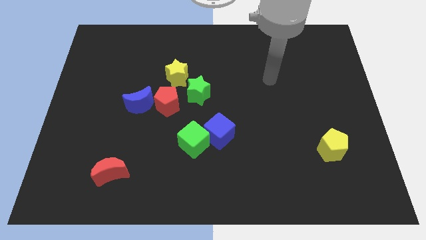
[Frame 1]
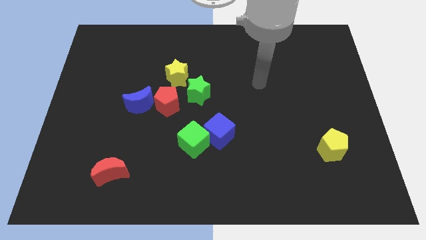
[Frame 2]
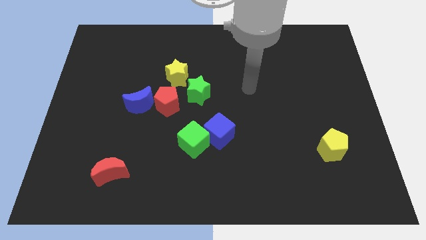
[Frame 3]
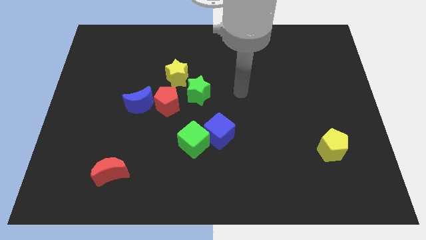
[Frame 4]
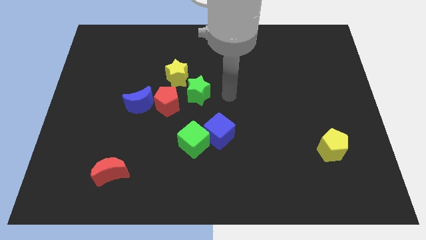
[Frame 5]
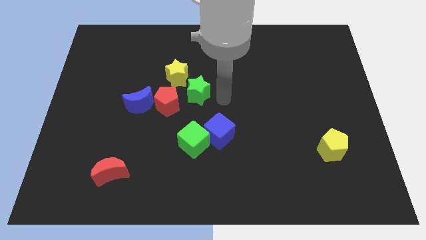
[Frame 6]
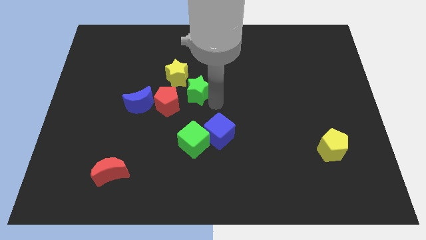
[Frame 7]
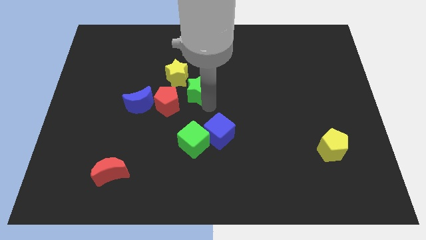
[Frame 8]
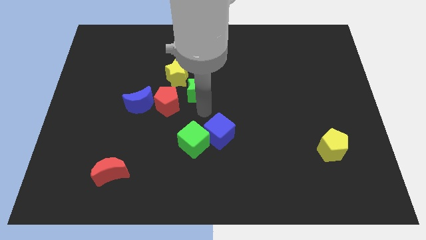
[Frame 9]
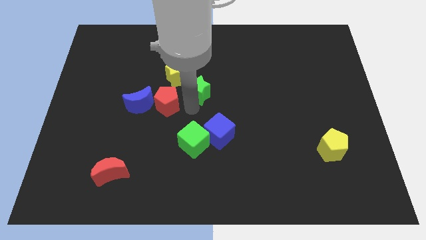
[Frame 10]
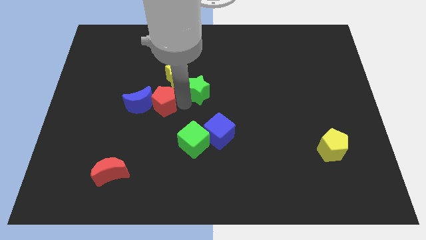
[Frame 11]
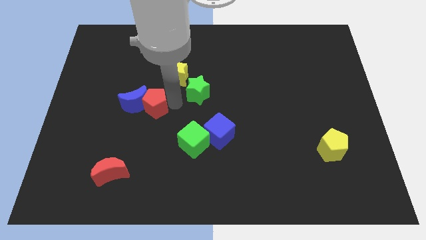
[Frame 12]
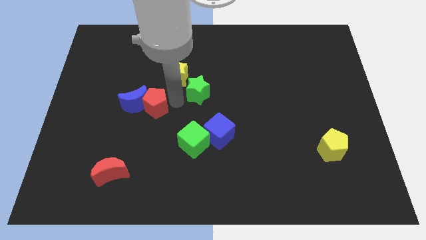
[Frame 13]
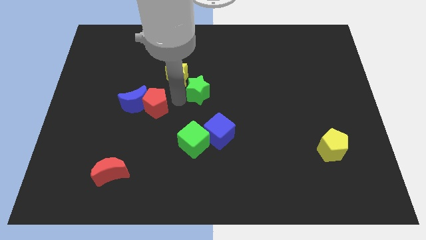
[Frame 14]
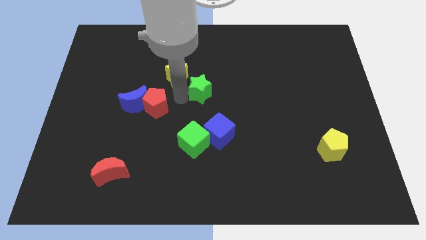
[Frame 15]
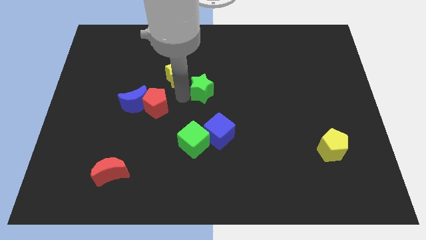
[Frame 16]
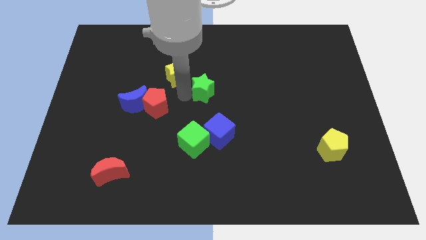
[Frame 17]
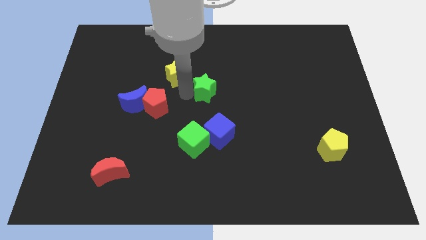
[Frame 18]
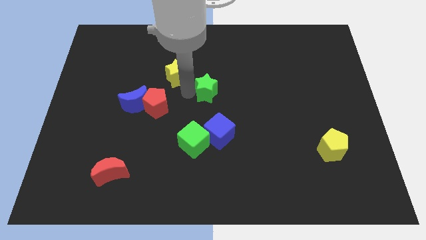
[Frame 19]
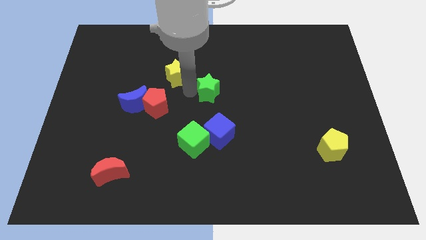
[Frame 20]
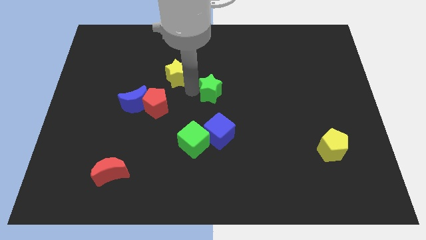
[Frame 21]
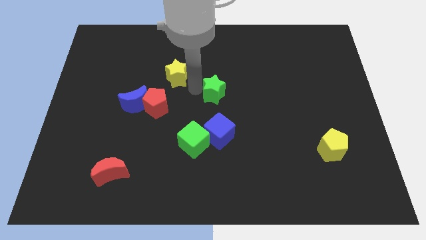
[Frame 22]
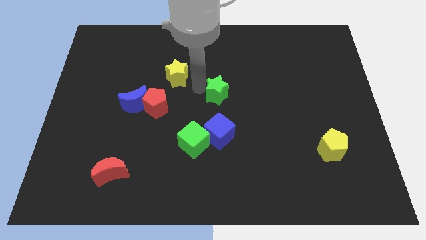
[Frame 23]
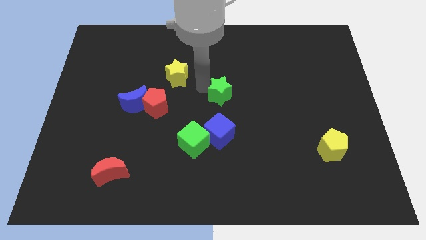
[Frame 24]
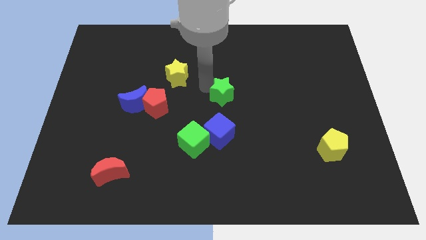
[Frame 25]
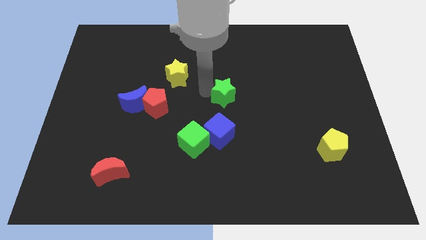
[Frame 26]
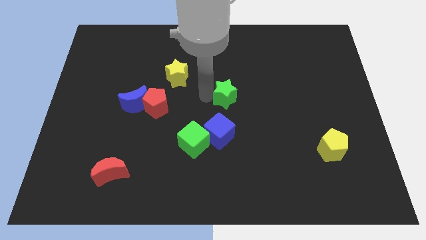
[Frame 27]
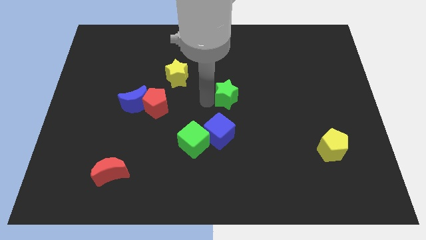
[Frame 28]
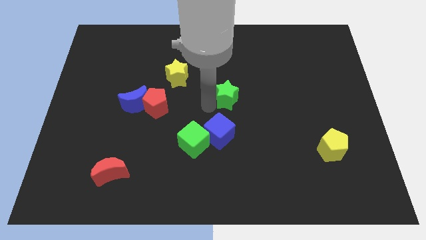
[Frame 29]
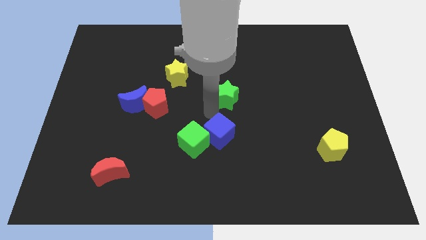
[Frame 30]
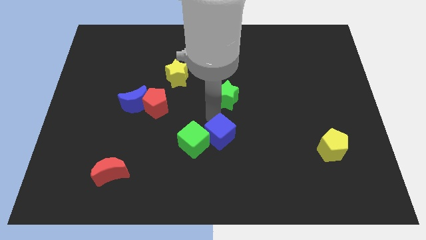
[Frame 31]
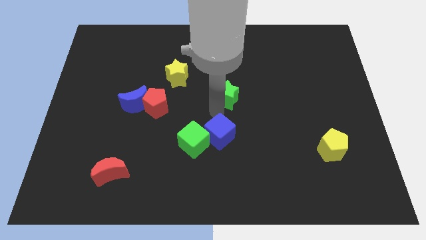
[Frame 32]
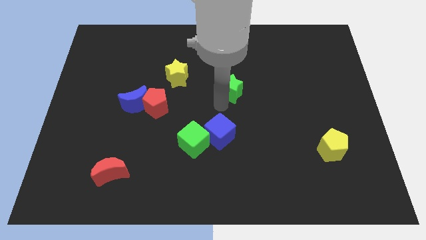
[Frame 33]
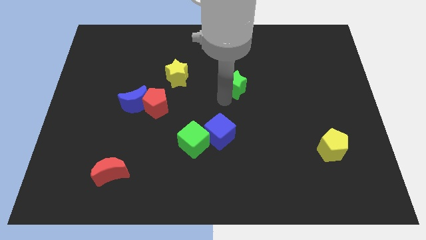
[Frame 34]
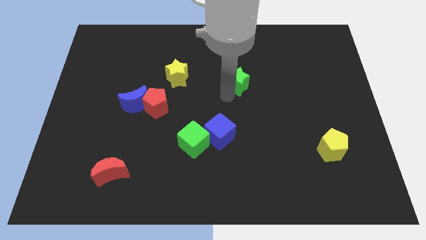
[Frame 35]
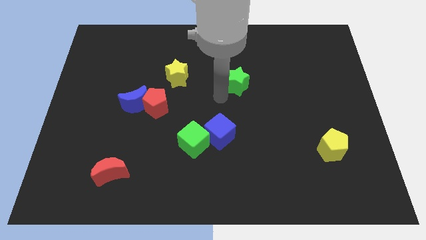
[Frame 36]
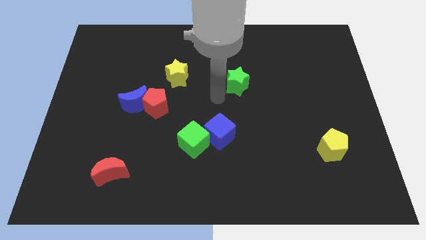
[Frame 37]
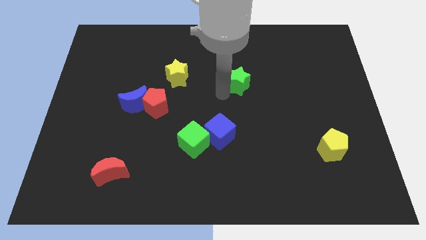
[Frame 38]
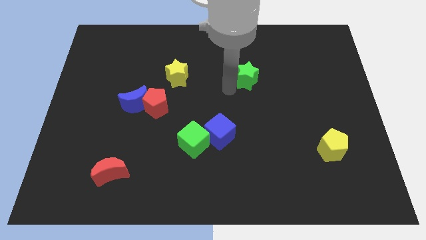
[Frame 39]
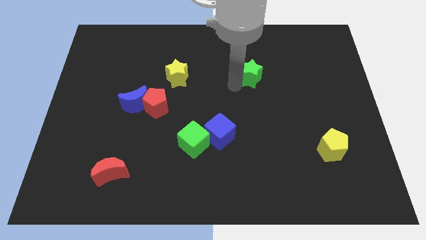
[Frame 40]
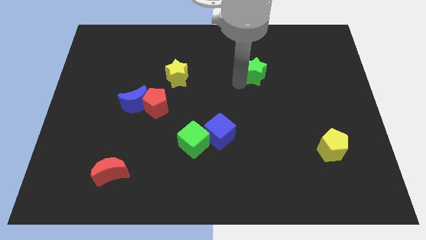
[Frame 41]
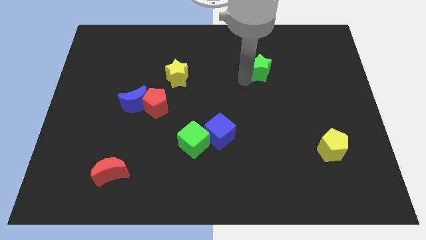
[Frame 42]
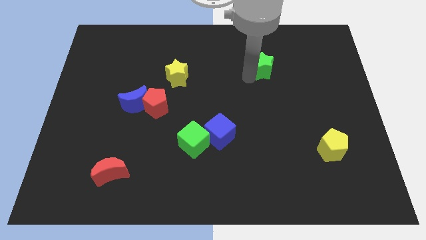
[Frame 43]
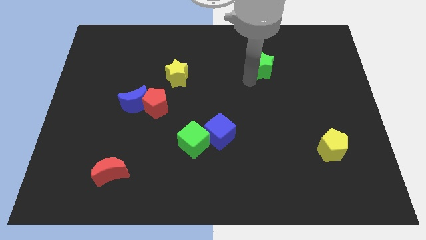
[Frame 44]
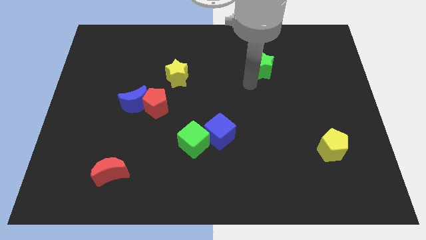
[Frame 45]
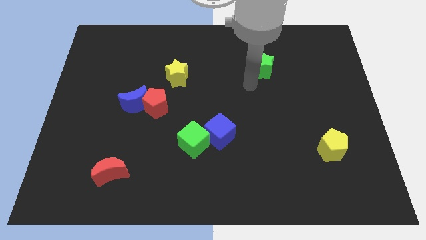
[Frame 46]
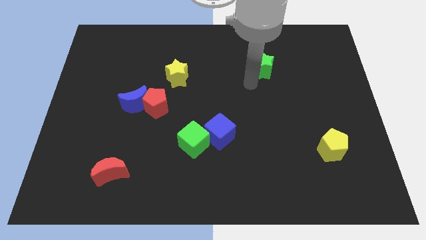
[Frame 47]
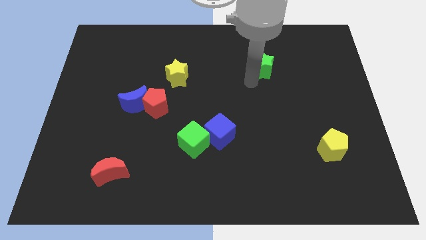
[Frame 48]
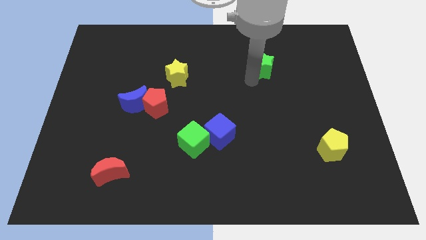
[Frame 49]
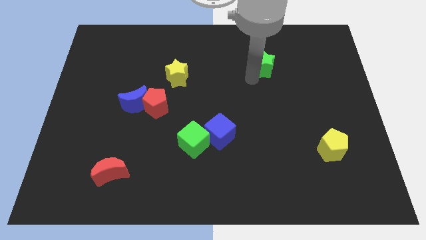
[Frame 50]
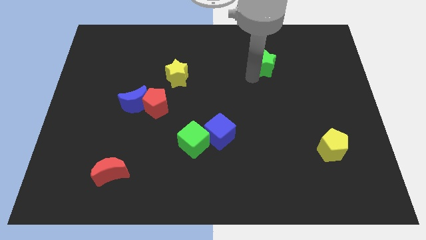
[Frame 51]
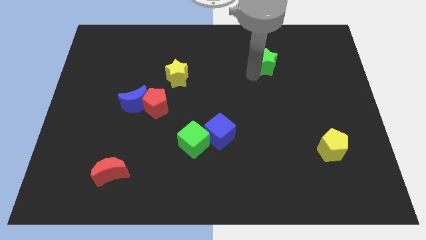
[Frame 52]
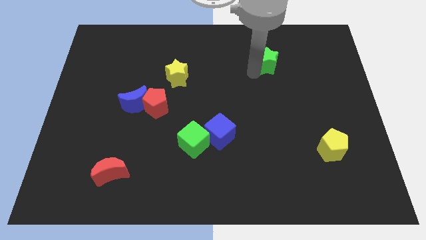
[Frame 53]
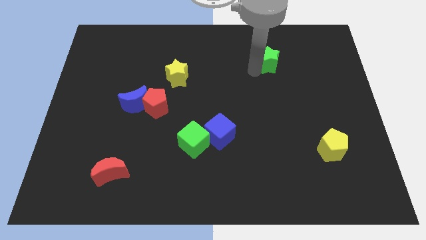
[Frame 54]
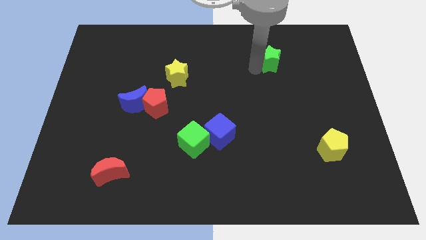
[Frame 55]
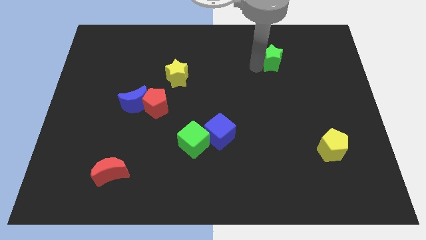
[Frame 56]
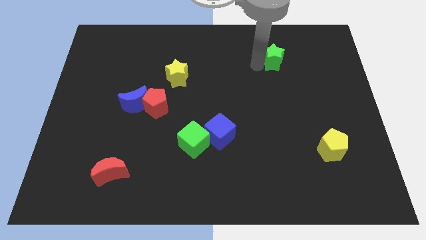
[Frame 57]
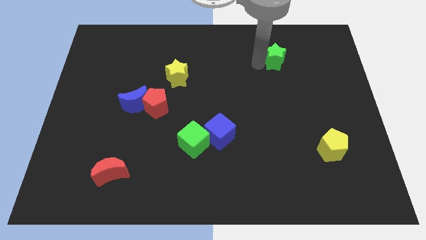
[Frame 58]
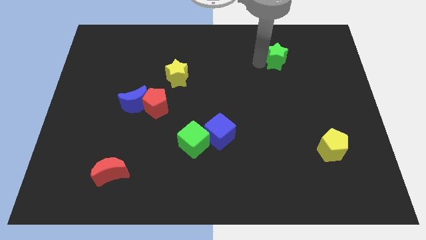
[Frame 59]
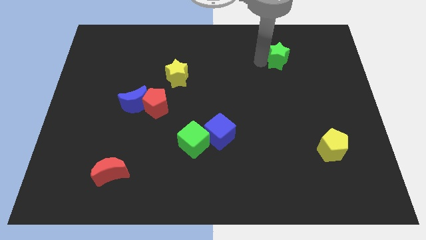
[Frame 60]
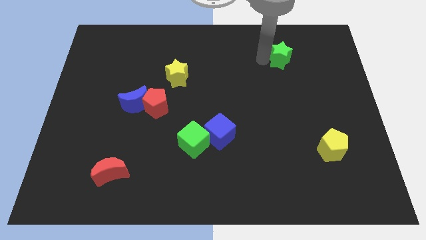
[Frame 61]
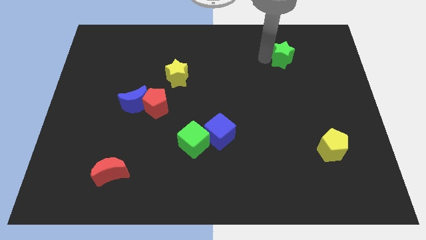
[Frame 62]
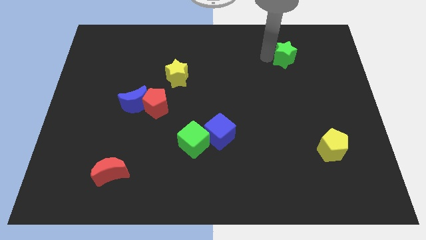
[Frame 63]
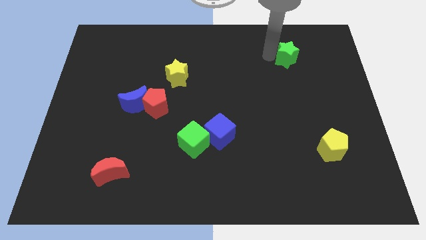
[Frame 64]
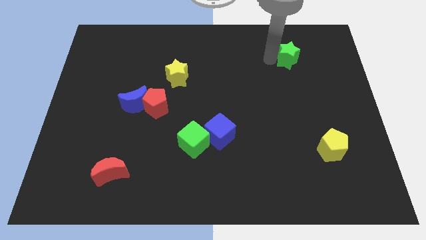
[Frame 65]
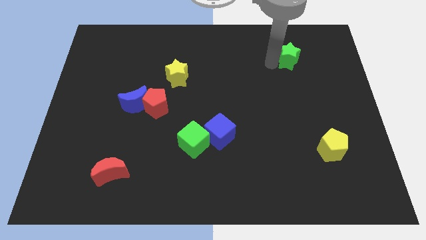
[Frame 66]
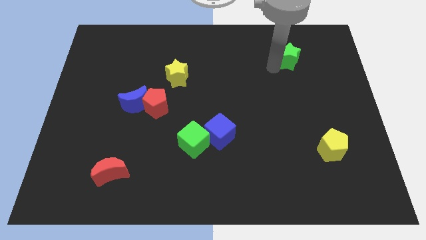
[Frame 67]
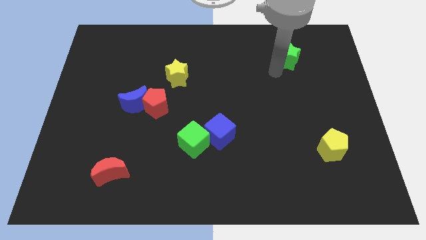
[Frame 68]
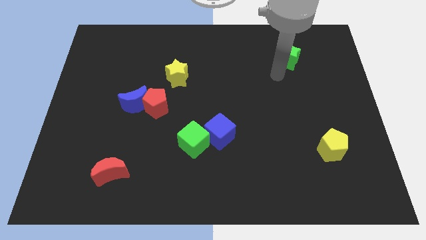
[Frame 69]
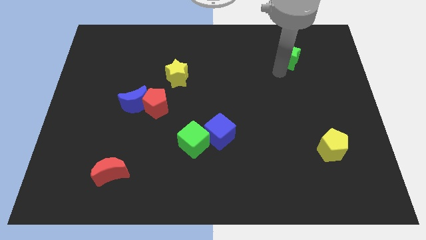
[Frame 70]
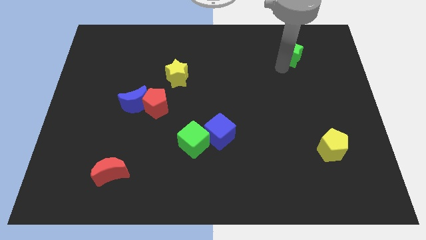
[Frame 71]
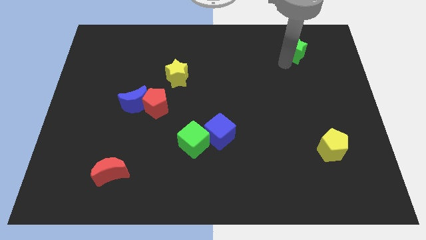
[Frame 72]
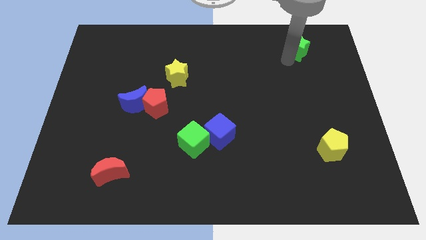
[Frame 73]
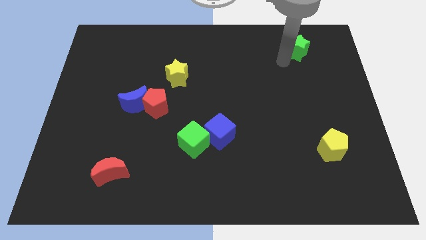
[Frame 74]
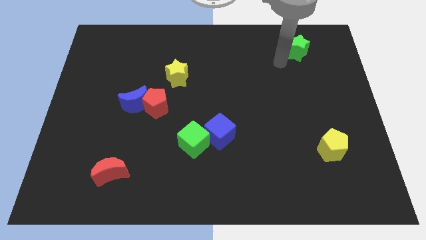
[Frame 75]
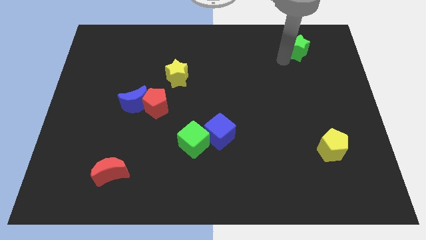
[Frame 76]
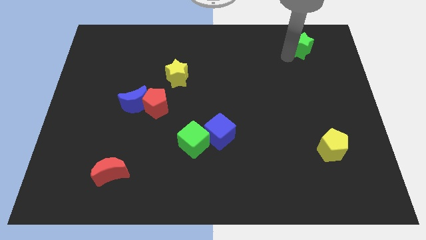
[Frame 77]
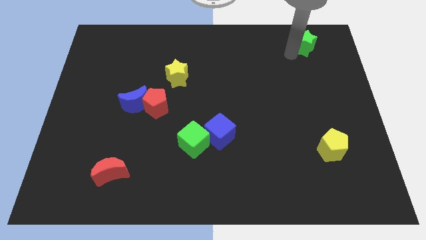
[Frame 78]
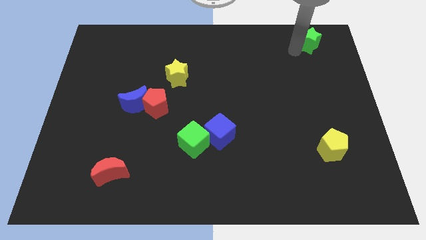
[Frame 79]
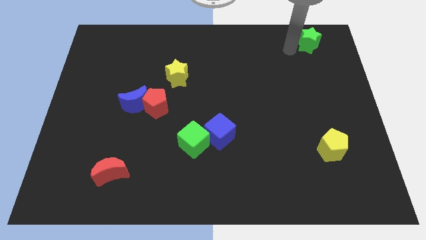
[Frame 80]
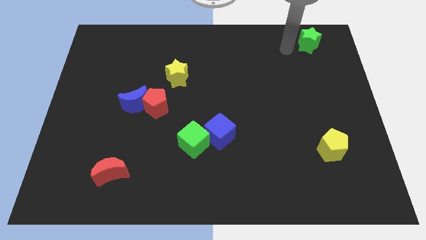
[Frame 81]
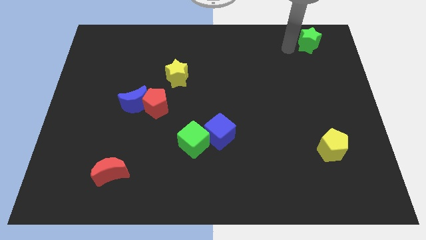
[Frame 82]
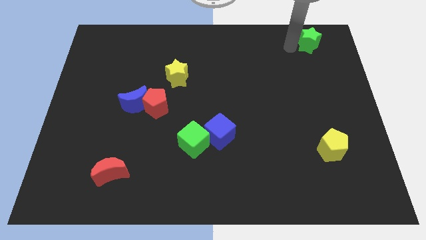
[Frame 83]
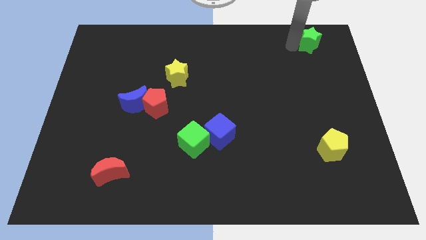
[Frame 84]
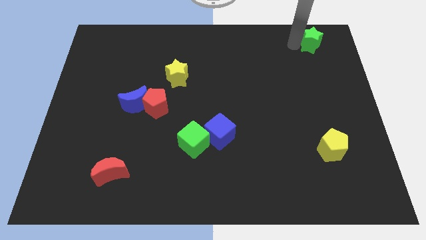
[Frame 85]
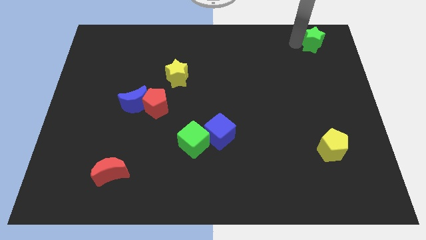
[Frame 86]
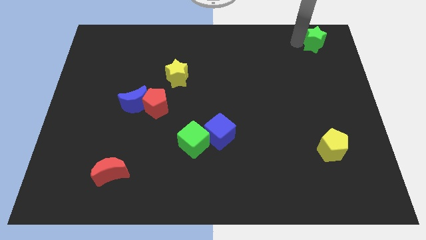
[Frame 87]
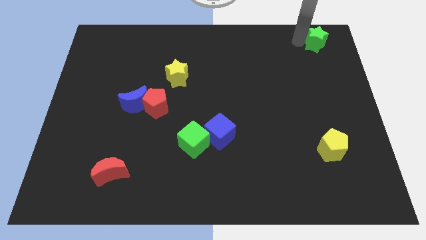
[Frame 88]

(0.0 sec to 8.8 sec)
put the green star to the top right
